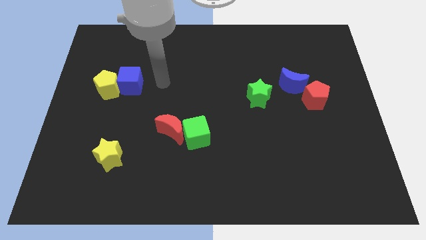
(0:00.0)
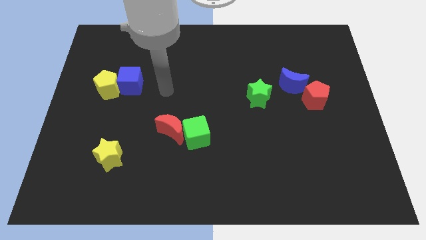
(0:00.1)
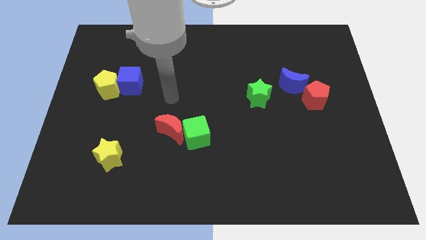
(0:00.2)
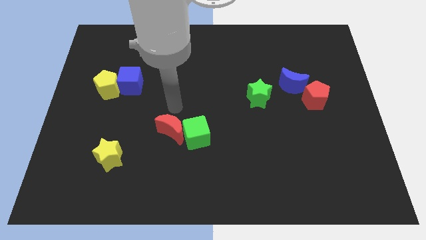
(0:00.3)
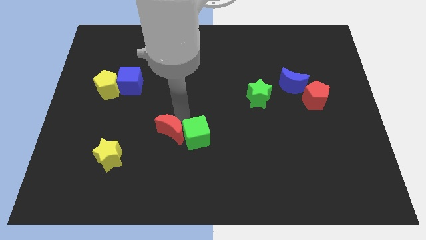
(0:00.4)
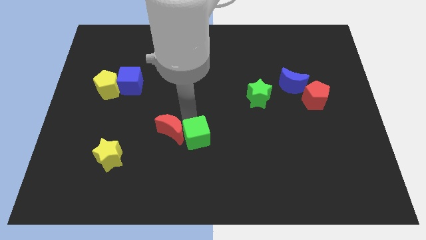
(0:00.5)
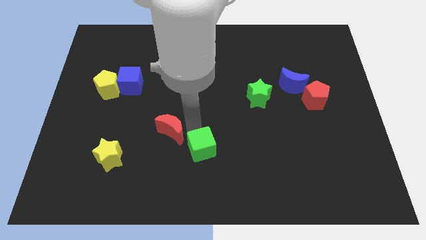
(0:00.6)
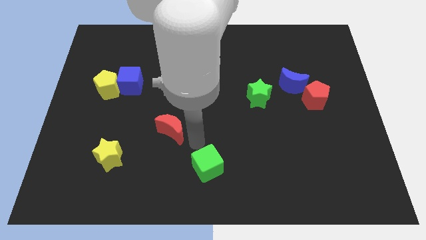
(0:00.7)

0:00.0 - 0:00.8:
pull the red moon apart from the green cube

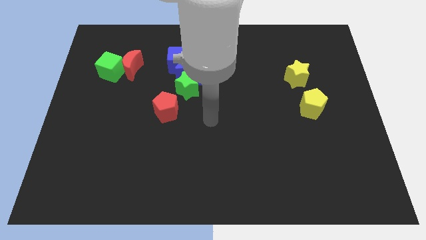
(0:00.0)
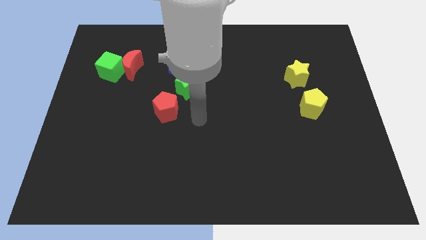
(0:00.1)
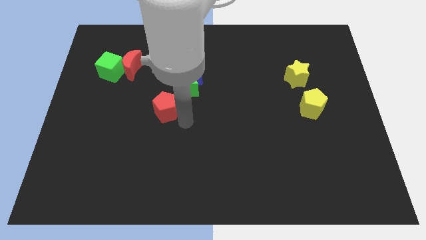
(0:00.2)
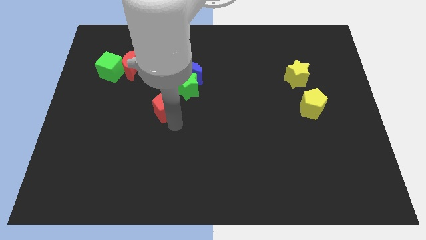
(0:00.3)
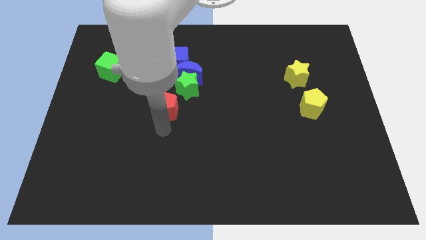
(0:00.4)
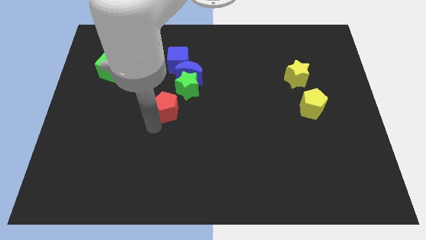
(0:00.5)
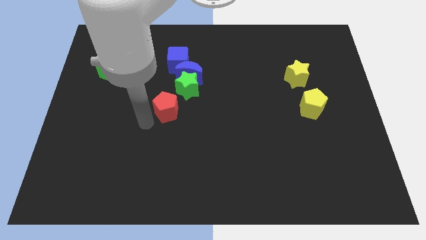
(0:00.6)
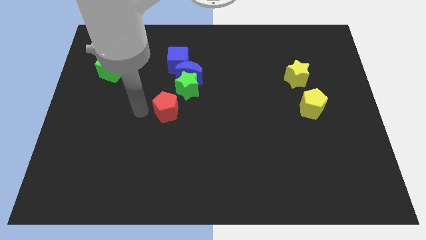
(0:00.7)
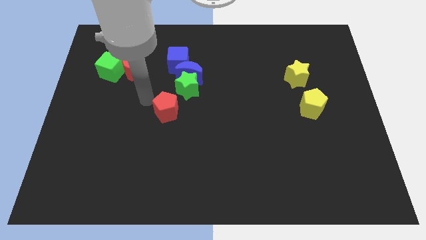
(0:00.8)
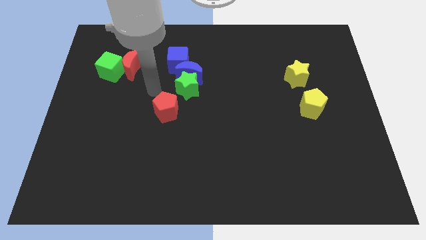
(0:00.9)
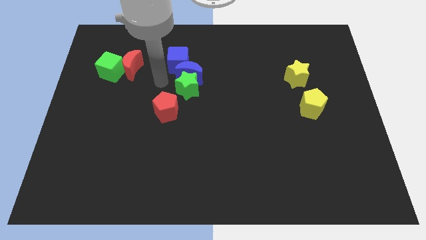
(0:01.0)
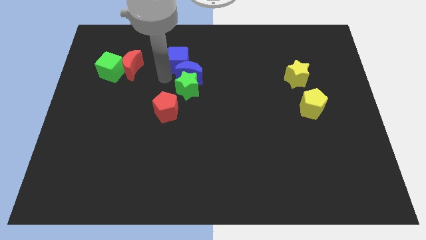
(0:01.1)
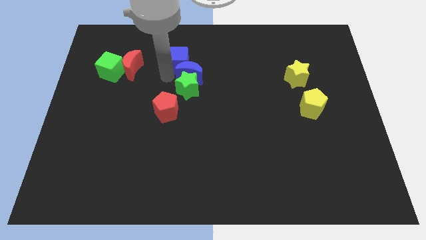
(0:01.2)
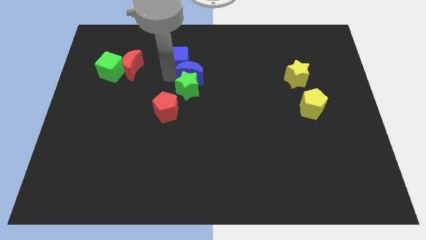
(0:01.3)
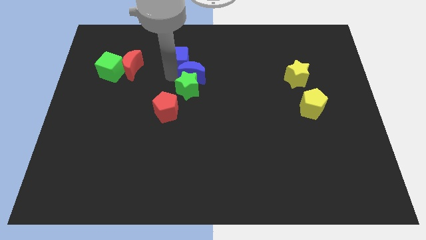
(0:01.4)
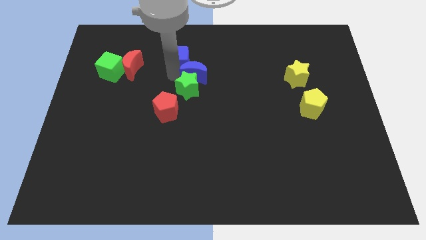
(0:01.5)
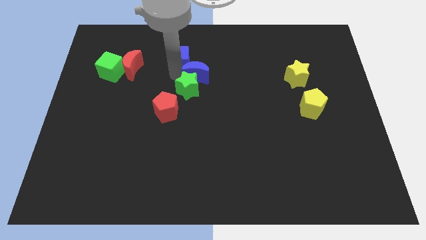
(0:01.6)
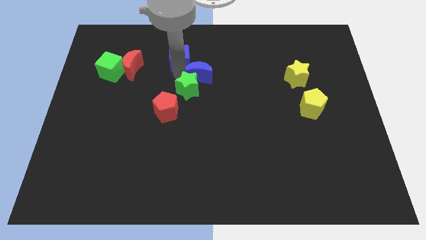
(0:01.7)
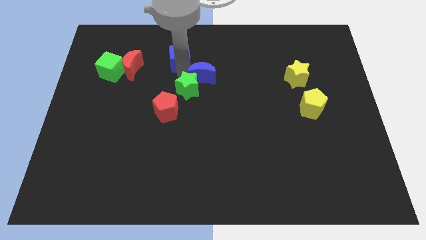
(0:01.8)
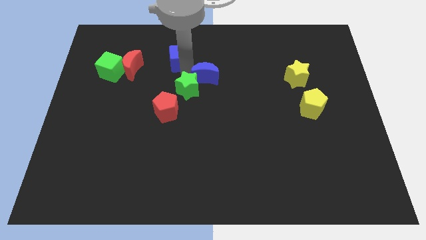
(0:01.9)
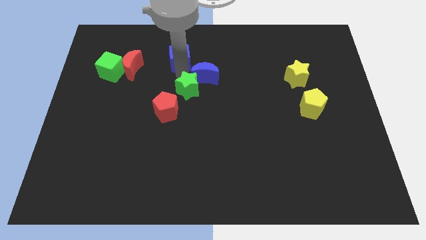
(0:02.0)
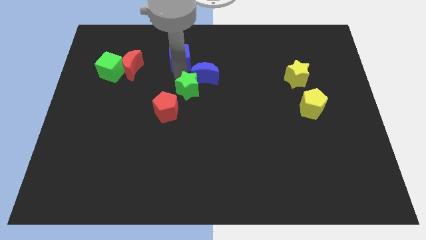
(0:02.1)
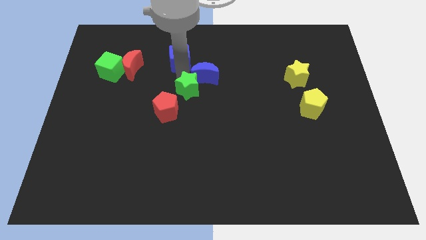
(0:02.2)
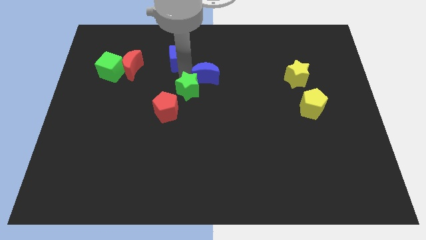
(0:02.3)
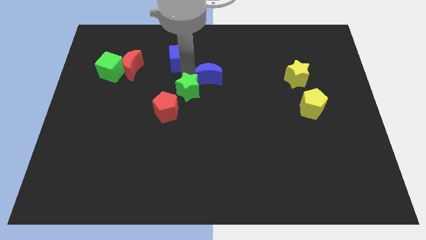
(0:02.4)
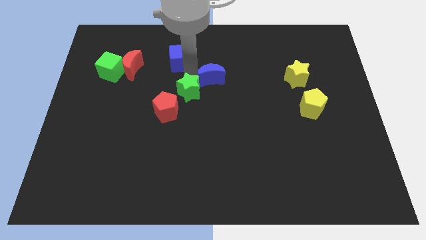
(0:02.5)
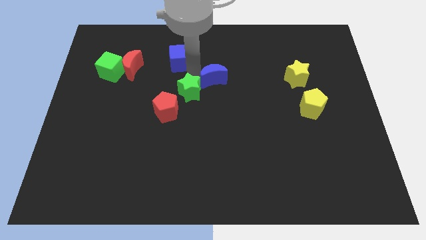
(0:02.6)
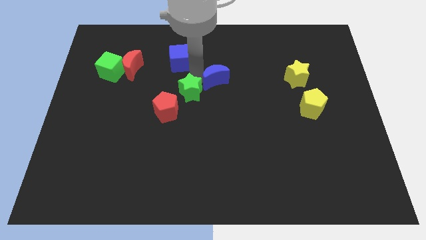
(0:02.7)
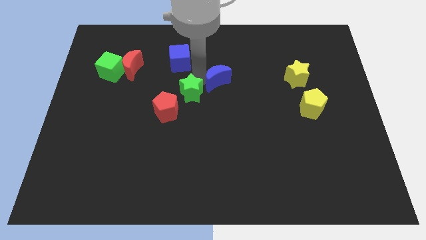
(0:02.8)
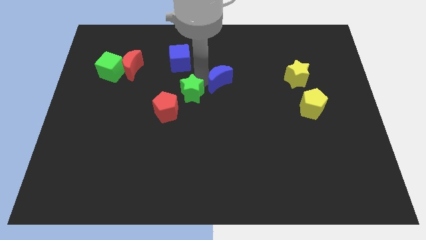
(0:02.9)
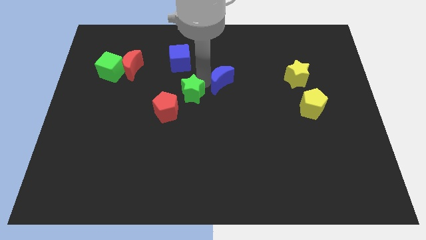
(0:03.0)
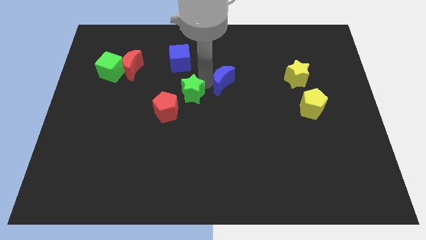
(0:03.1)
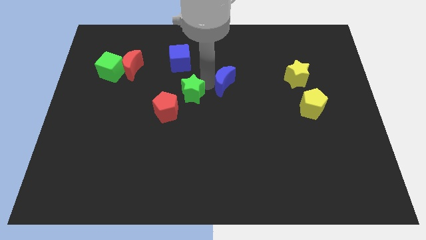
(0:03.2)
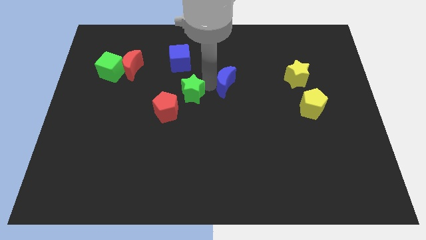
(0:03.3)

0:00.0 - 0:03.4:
pull the blue moon apart from the green star and blue cube

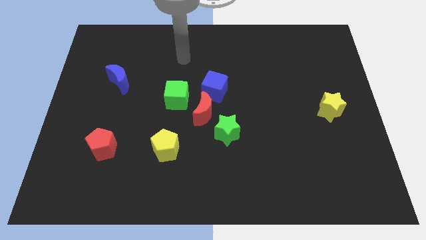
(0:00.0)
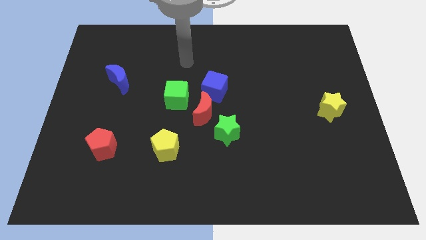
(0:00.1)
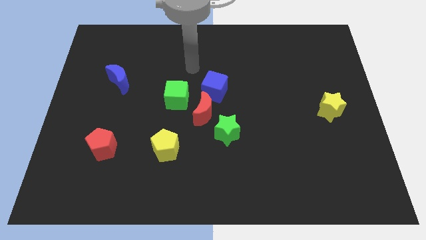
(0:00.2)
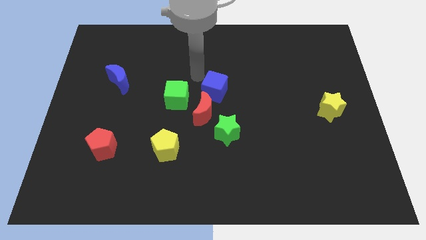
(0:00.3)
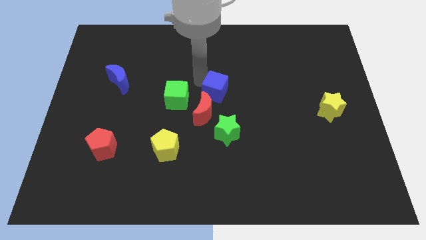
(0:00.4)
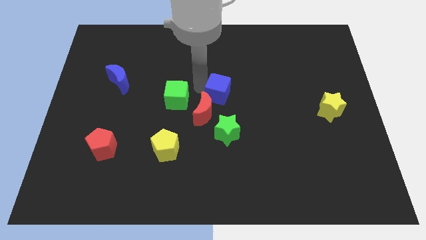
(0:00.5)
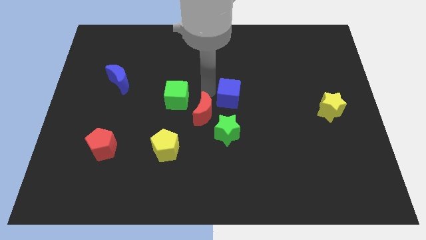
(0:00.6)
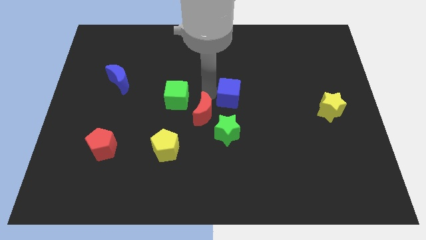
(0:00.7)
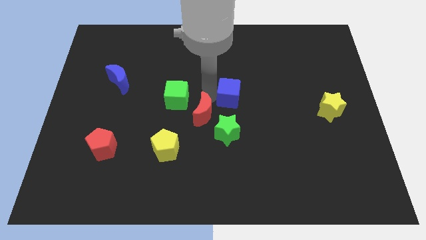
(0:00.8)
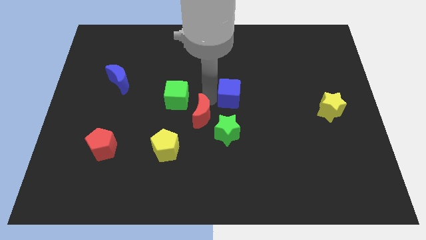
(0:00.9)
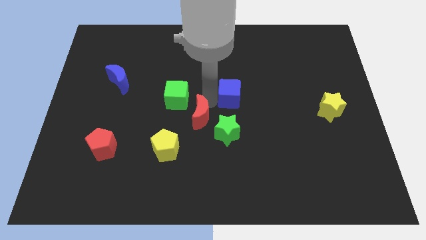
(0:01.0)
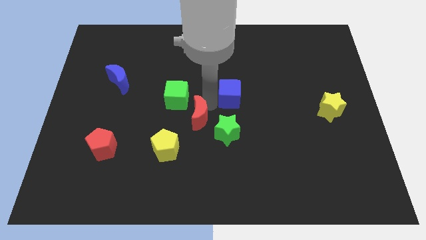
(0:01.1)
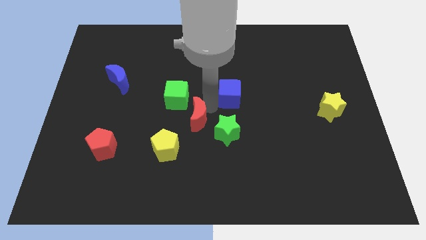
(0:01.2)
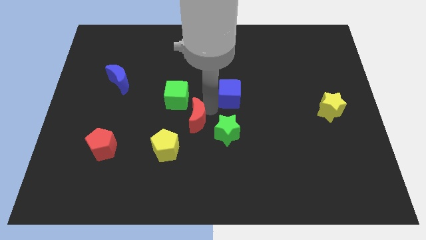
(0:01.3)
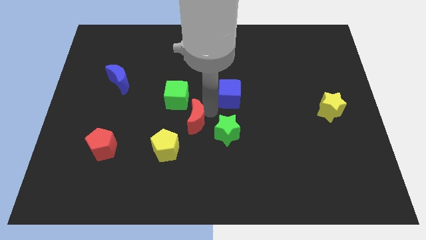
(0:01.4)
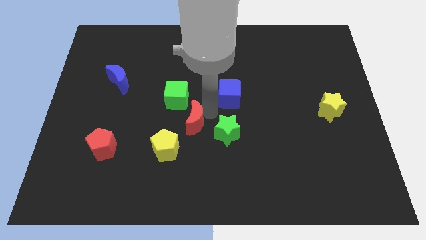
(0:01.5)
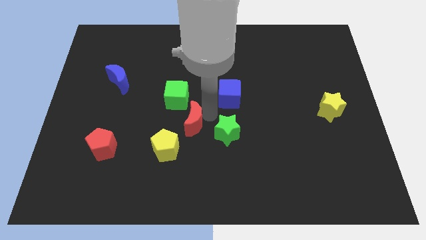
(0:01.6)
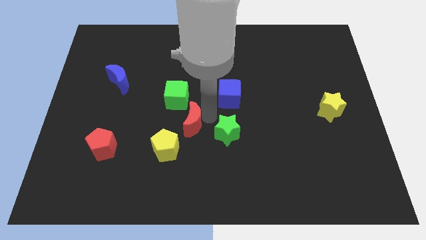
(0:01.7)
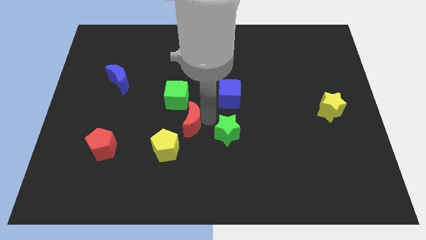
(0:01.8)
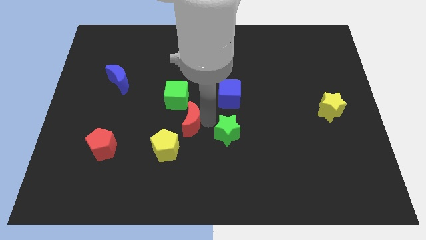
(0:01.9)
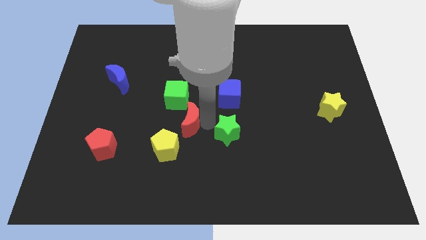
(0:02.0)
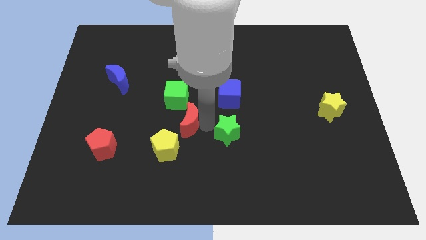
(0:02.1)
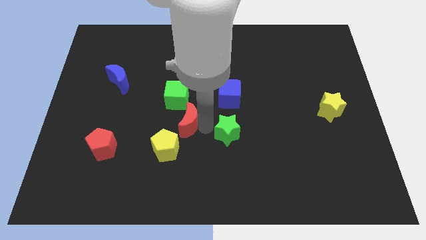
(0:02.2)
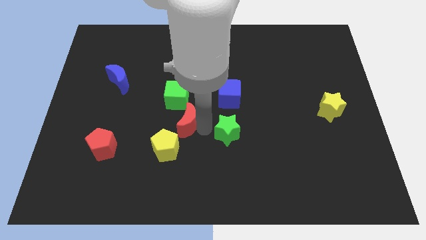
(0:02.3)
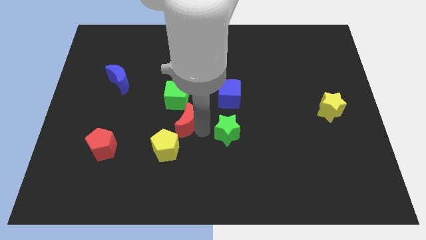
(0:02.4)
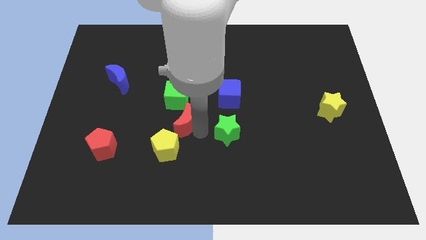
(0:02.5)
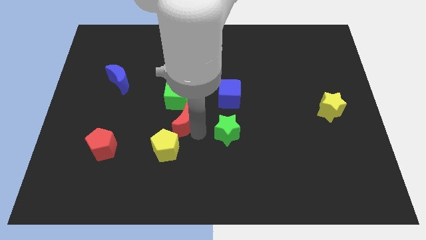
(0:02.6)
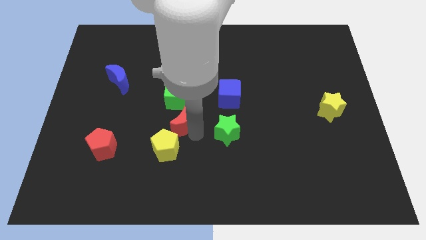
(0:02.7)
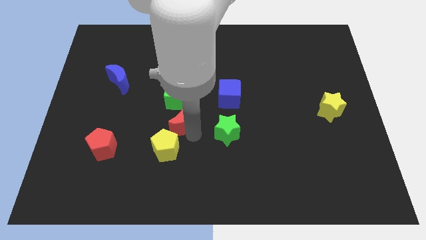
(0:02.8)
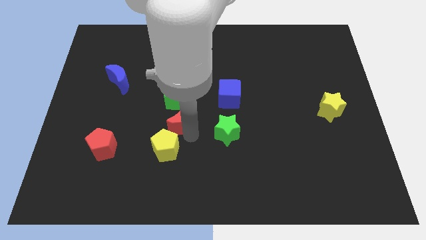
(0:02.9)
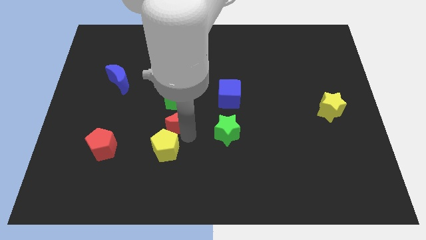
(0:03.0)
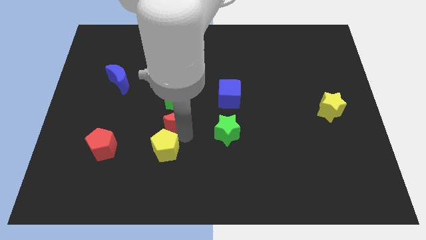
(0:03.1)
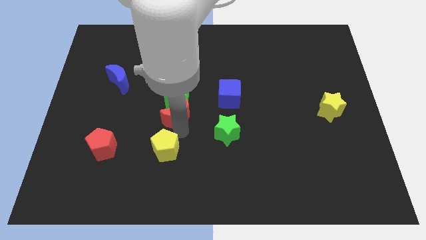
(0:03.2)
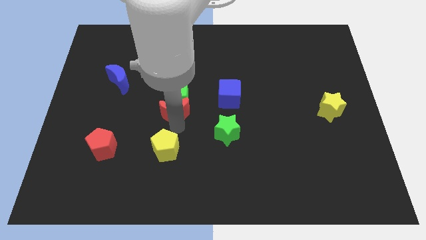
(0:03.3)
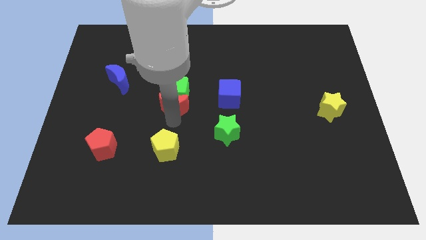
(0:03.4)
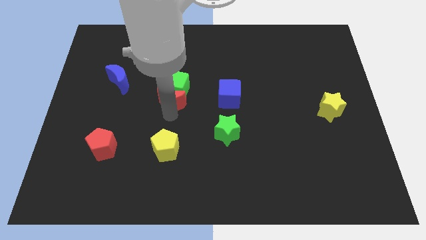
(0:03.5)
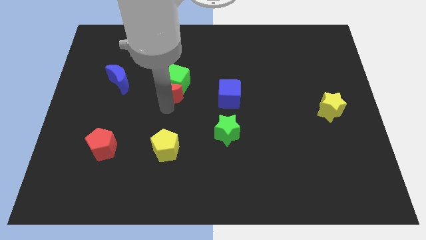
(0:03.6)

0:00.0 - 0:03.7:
pull the red moon apart from the group

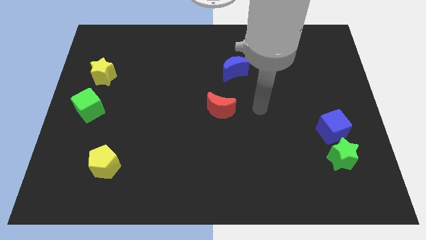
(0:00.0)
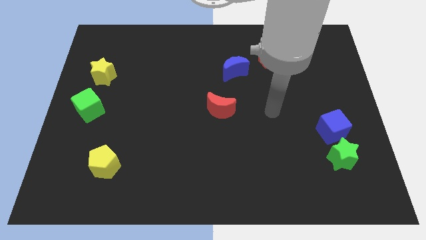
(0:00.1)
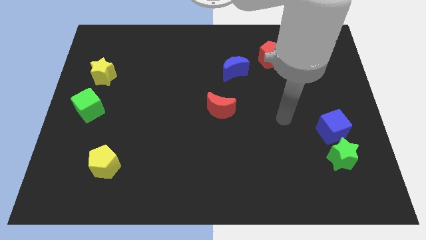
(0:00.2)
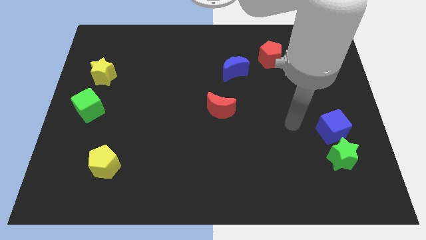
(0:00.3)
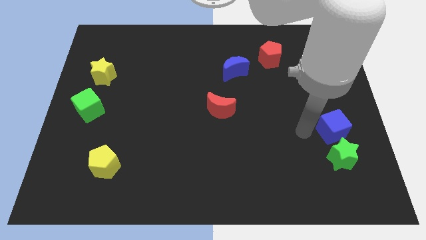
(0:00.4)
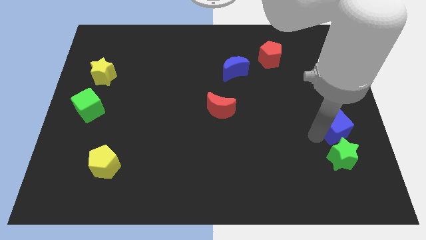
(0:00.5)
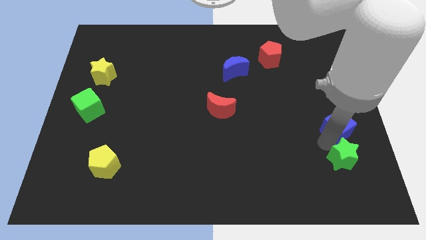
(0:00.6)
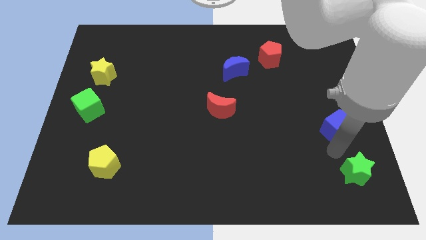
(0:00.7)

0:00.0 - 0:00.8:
pull the blue cube apart from the green star

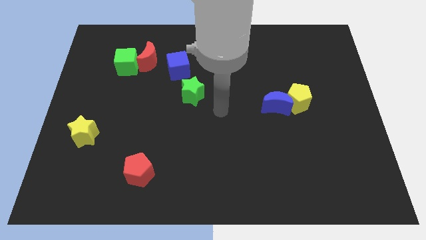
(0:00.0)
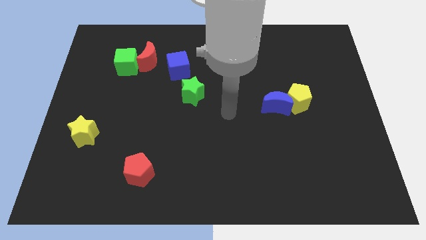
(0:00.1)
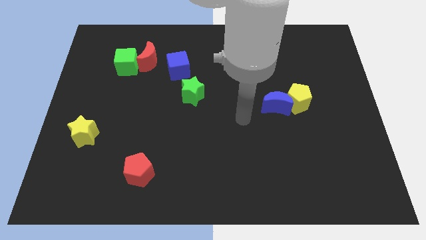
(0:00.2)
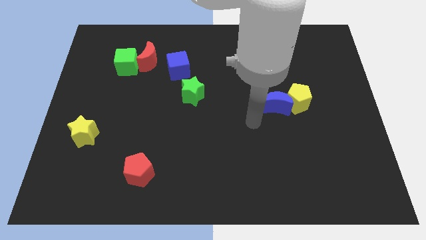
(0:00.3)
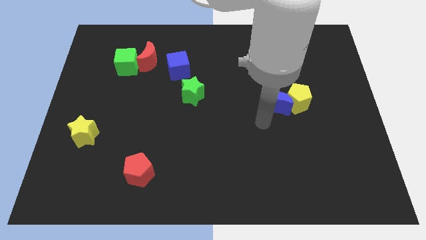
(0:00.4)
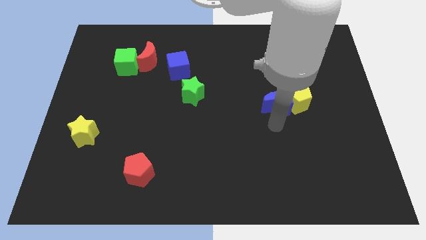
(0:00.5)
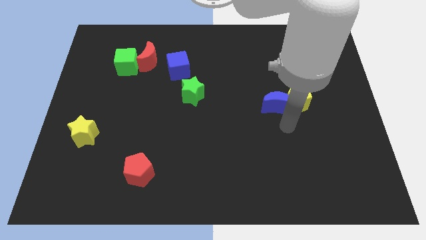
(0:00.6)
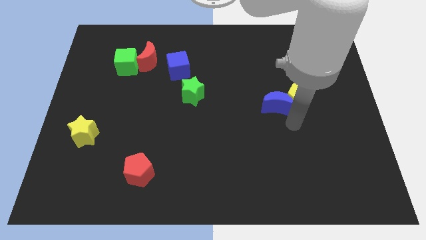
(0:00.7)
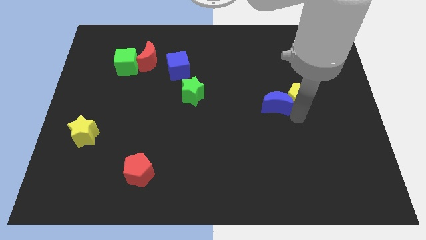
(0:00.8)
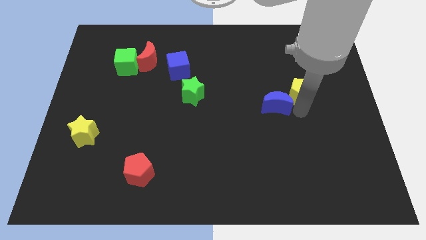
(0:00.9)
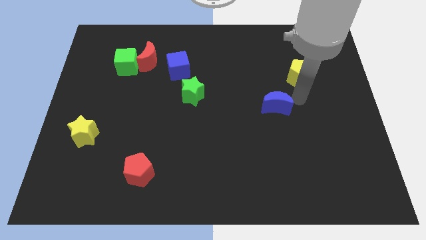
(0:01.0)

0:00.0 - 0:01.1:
move the blue moon away from the yellow pentagon
